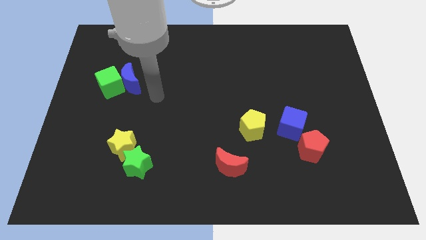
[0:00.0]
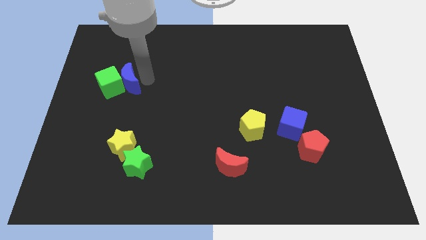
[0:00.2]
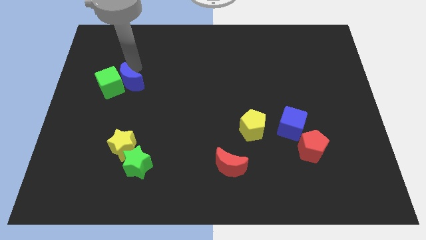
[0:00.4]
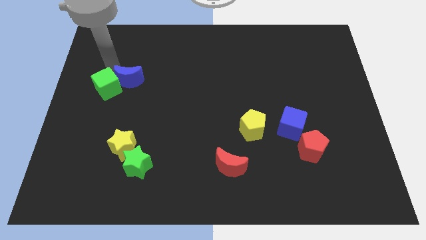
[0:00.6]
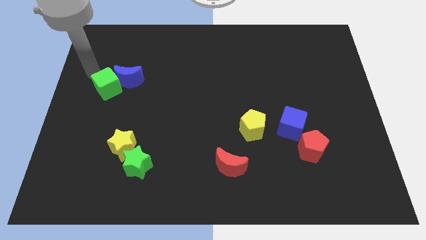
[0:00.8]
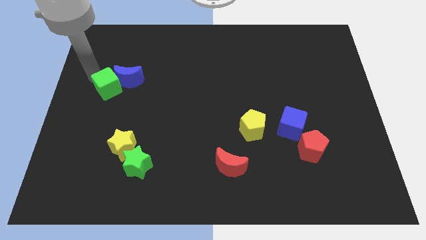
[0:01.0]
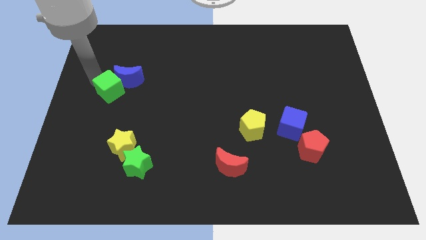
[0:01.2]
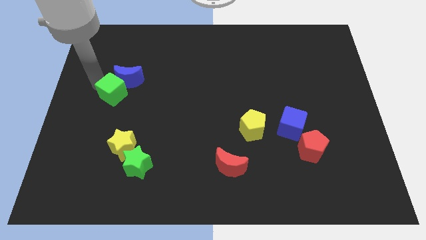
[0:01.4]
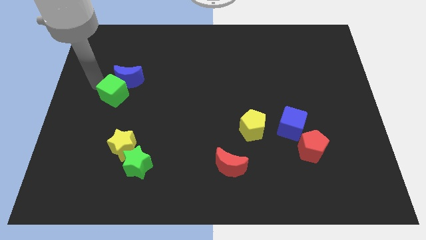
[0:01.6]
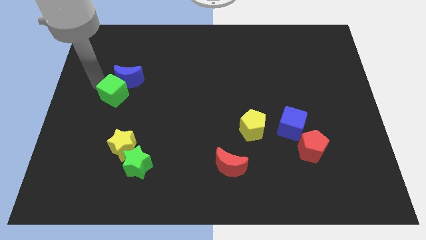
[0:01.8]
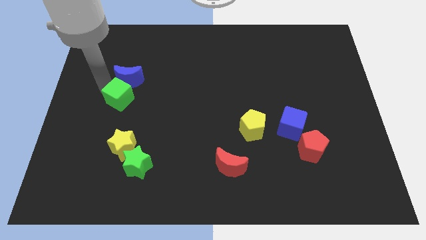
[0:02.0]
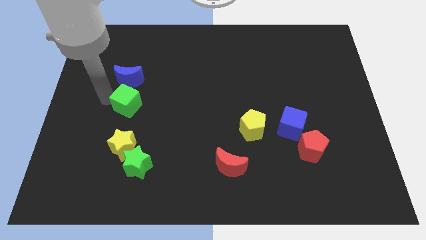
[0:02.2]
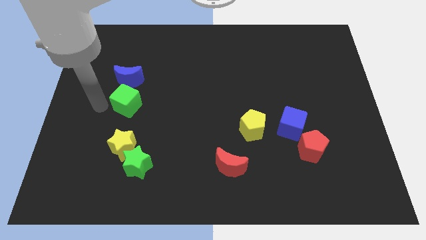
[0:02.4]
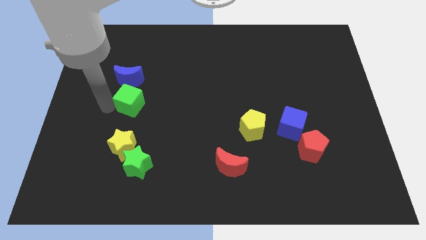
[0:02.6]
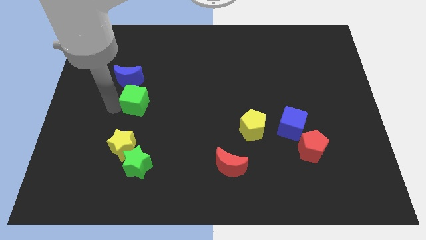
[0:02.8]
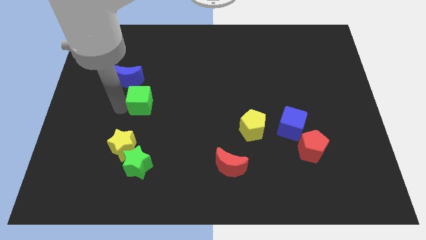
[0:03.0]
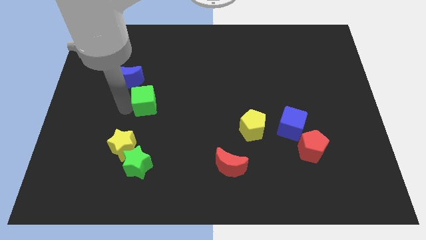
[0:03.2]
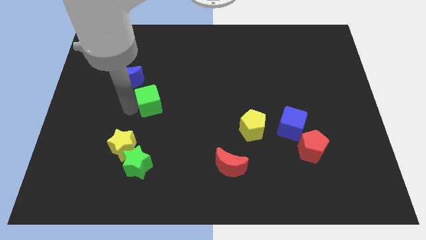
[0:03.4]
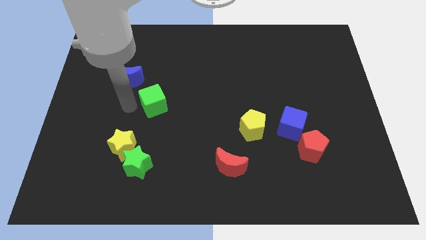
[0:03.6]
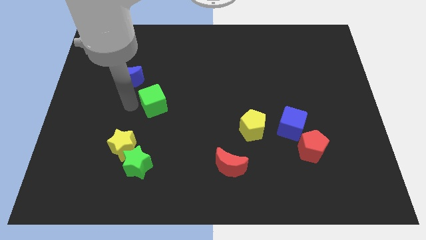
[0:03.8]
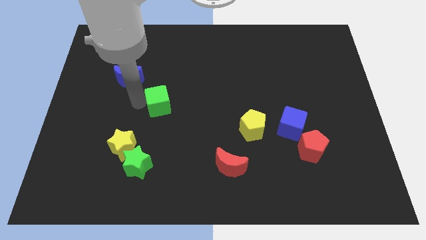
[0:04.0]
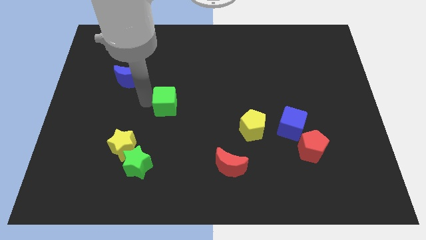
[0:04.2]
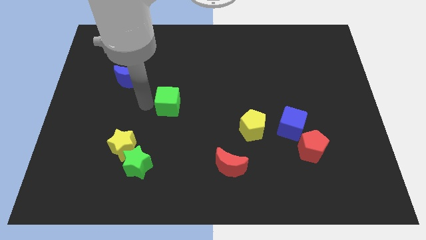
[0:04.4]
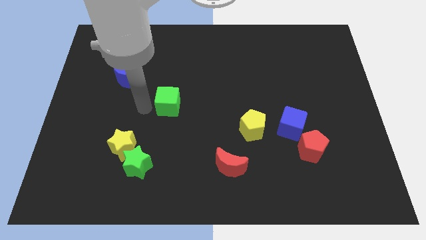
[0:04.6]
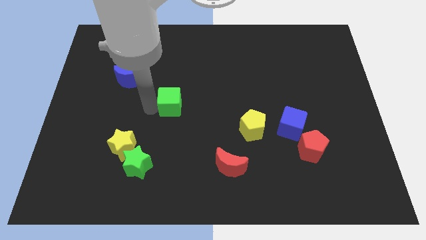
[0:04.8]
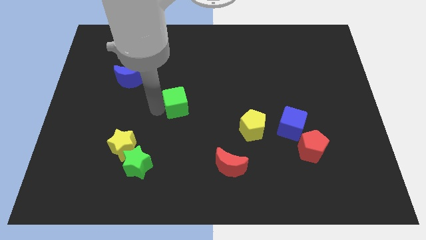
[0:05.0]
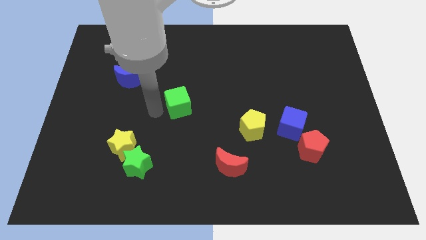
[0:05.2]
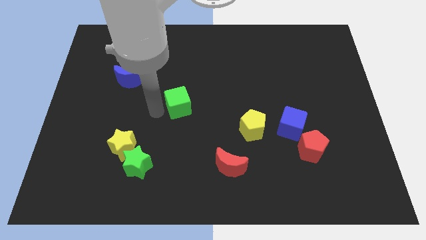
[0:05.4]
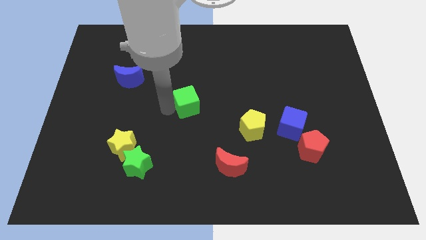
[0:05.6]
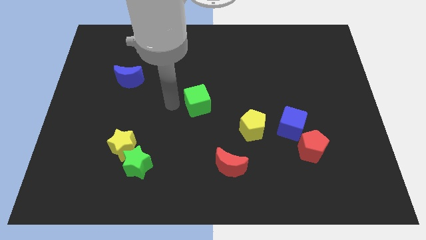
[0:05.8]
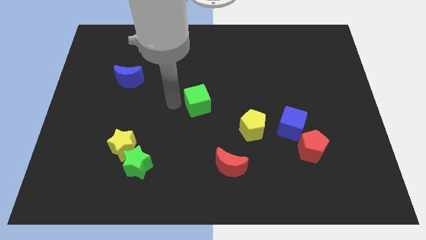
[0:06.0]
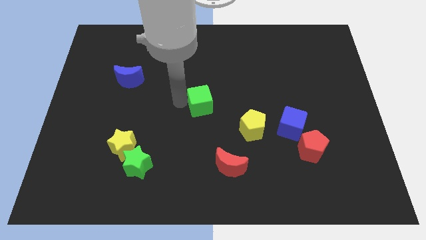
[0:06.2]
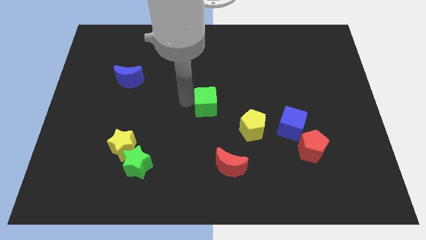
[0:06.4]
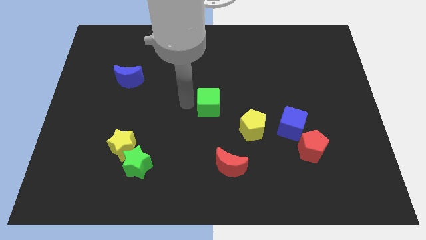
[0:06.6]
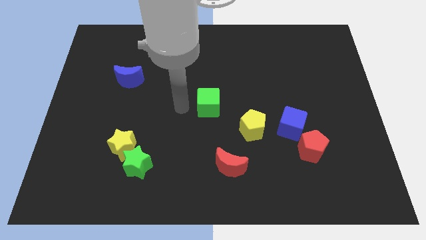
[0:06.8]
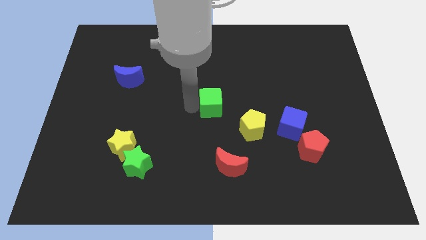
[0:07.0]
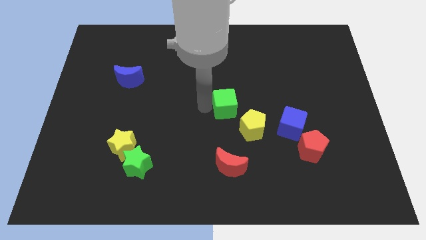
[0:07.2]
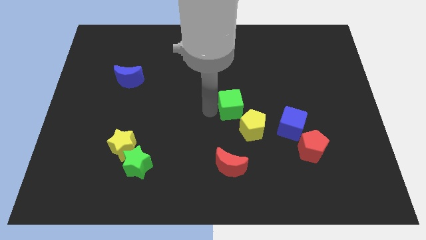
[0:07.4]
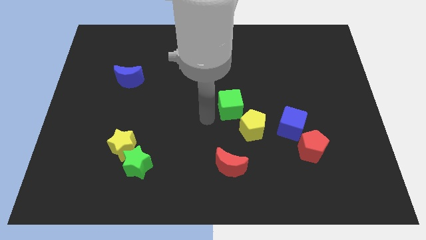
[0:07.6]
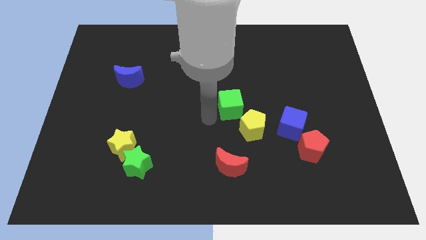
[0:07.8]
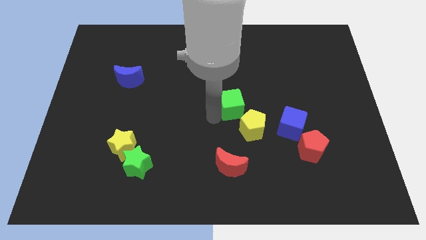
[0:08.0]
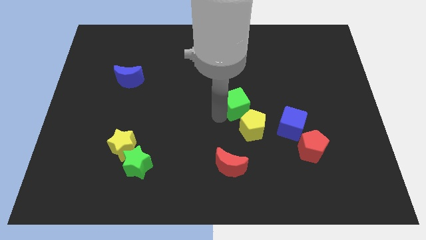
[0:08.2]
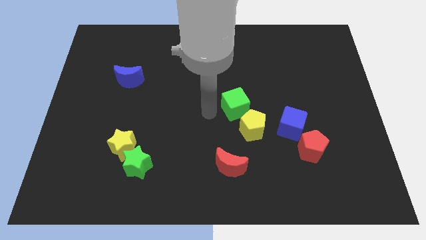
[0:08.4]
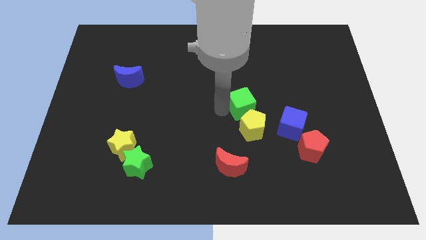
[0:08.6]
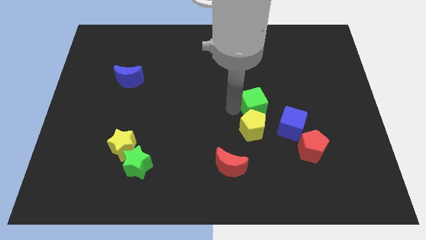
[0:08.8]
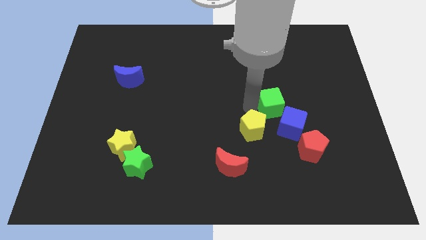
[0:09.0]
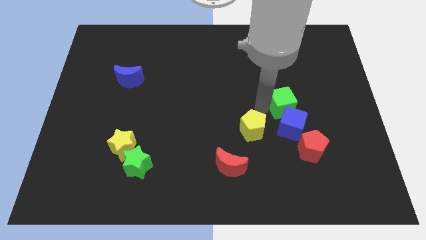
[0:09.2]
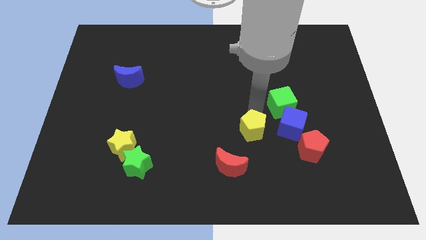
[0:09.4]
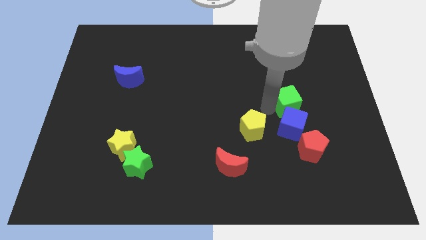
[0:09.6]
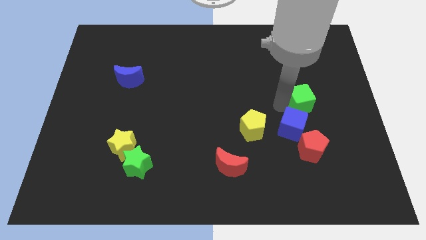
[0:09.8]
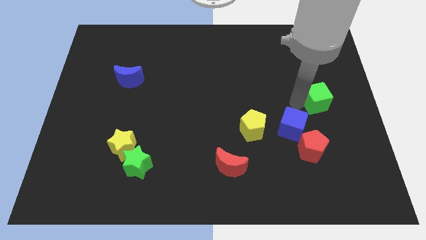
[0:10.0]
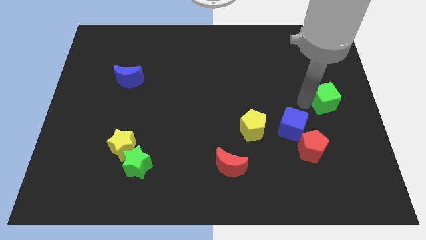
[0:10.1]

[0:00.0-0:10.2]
slide the green cube to the right side of the board
